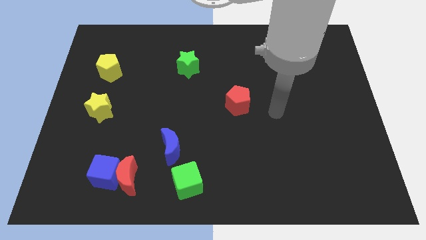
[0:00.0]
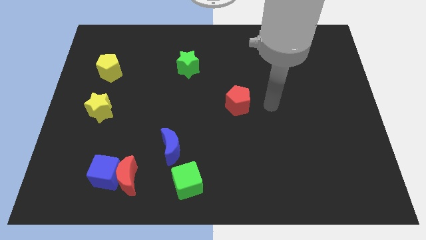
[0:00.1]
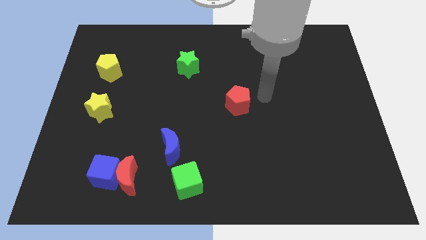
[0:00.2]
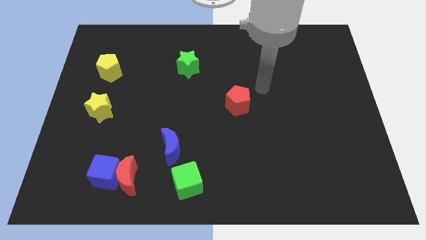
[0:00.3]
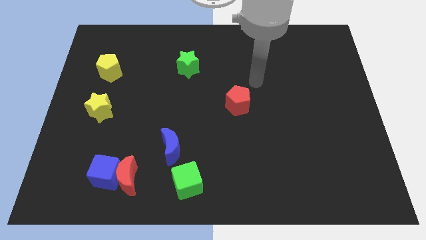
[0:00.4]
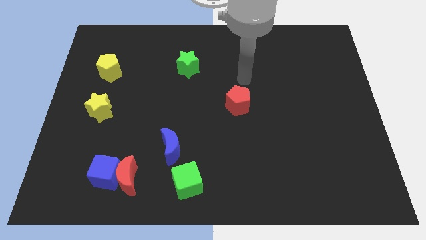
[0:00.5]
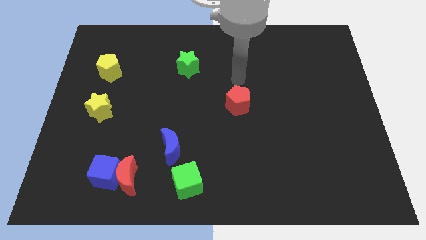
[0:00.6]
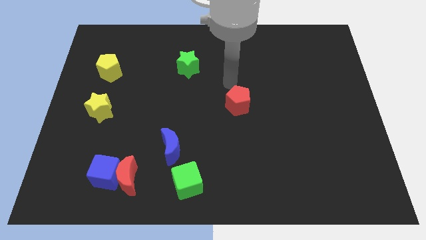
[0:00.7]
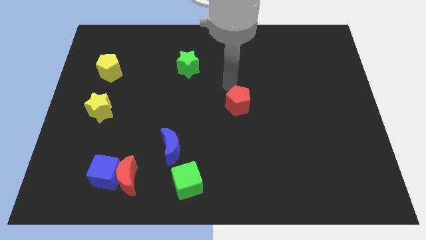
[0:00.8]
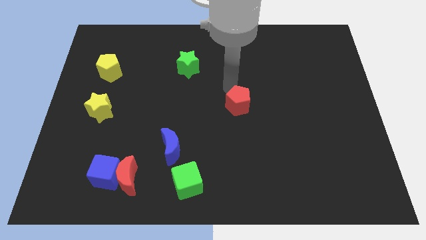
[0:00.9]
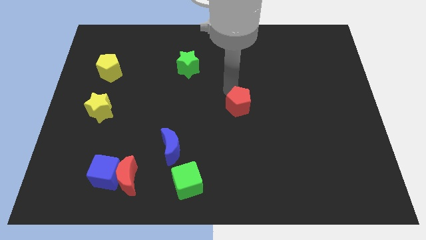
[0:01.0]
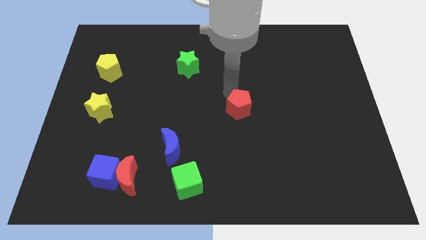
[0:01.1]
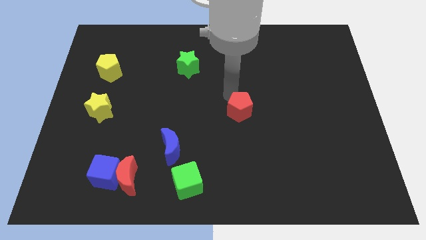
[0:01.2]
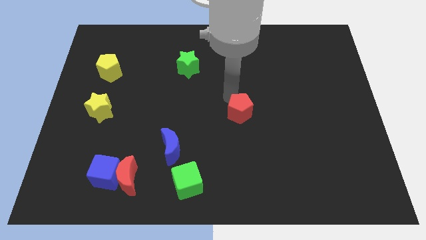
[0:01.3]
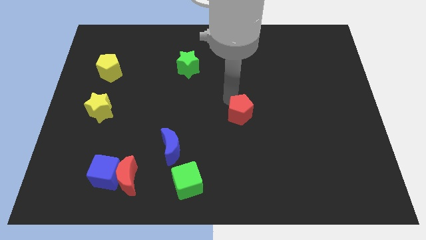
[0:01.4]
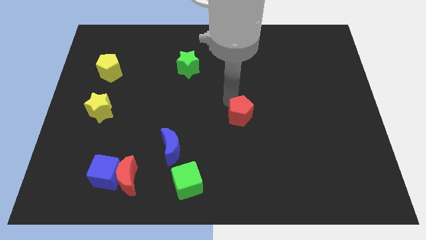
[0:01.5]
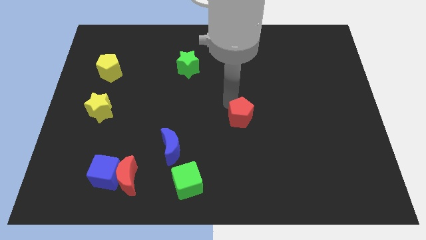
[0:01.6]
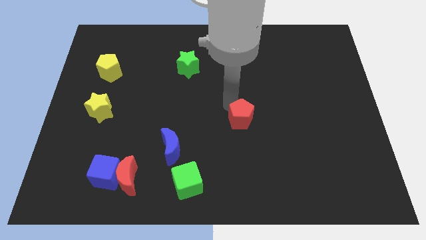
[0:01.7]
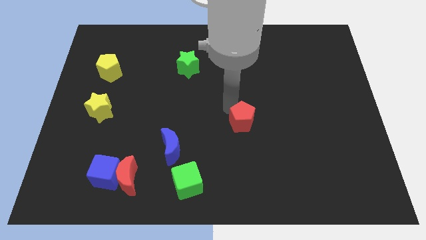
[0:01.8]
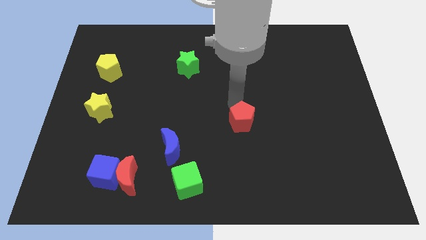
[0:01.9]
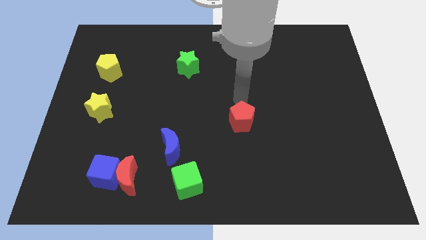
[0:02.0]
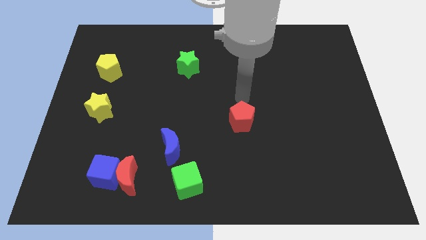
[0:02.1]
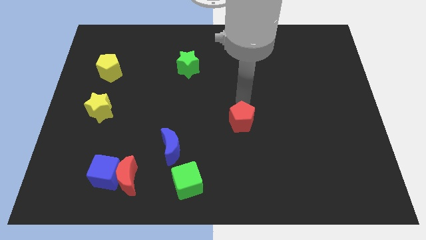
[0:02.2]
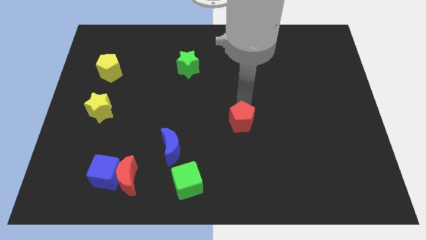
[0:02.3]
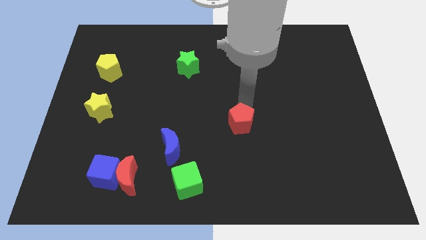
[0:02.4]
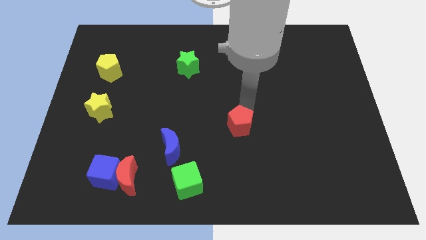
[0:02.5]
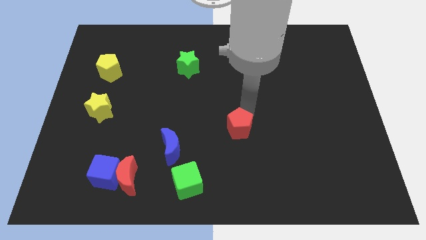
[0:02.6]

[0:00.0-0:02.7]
move the red pentagon somewhat down

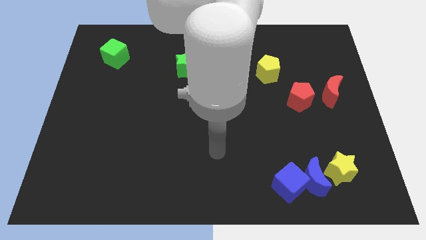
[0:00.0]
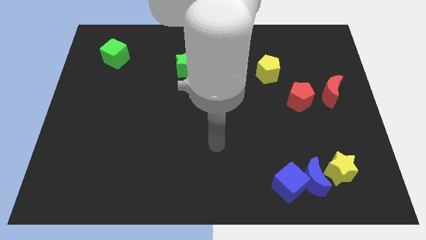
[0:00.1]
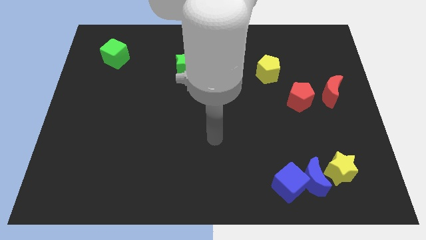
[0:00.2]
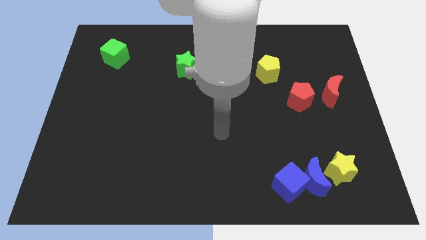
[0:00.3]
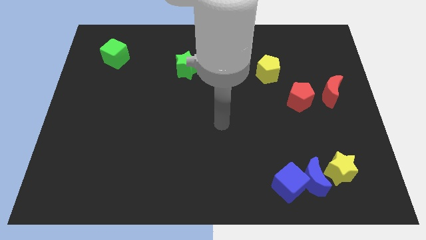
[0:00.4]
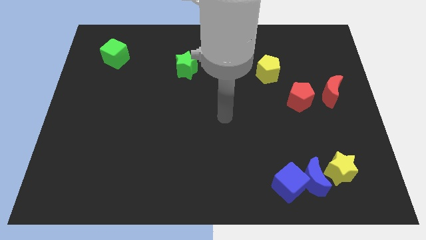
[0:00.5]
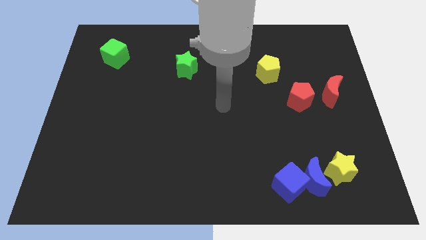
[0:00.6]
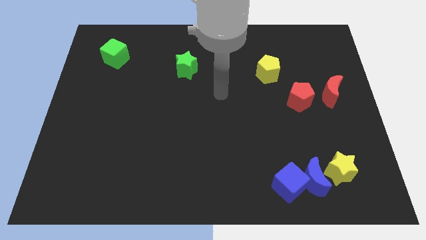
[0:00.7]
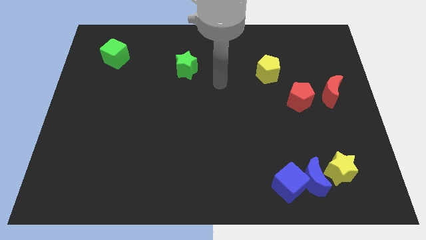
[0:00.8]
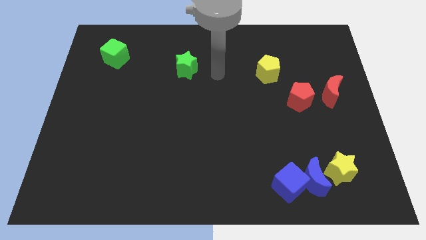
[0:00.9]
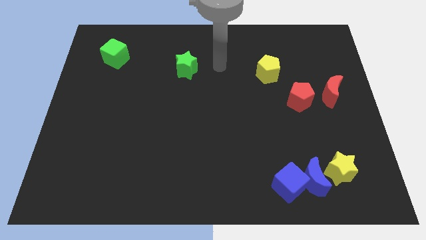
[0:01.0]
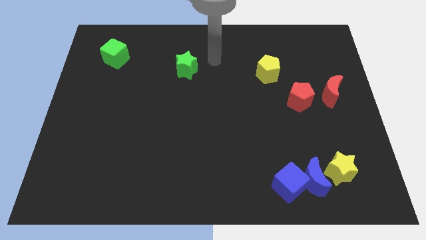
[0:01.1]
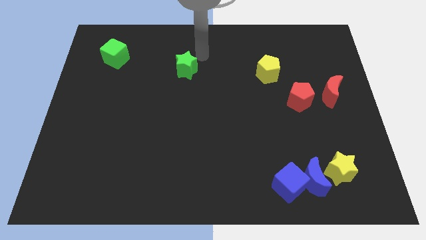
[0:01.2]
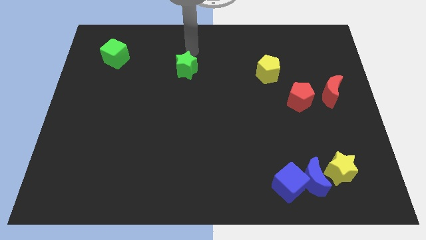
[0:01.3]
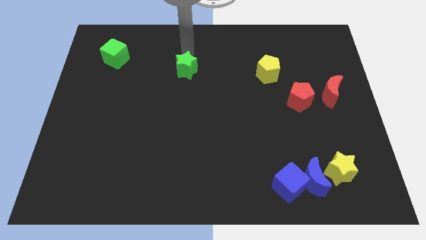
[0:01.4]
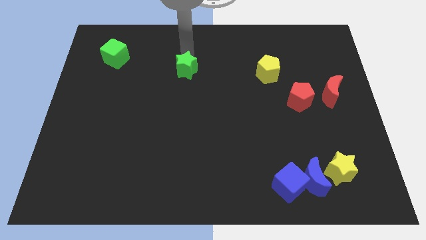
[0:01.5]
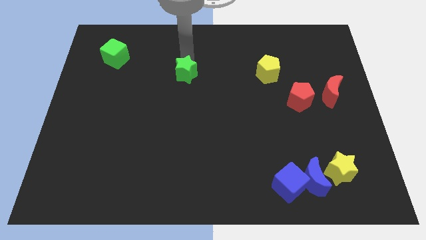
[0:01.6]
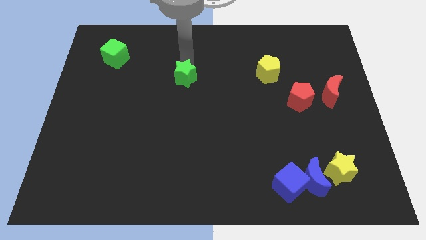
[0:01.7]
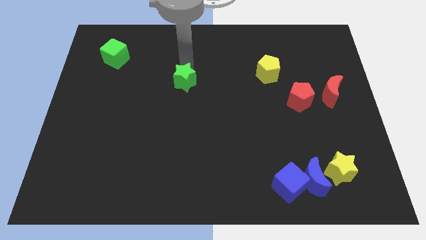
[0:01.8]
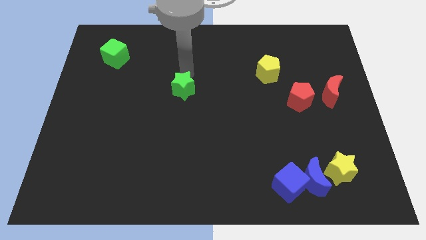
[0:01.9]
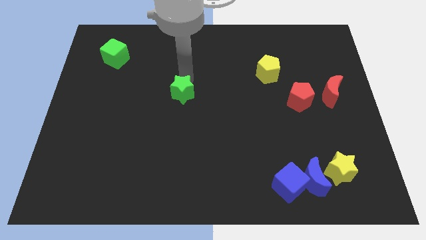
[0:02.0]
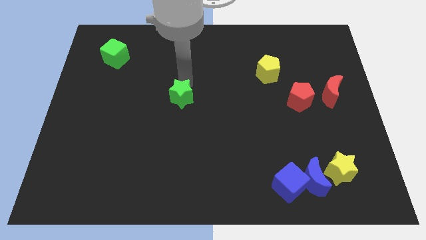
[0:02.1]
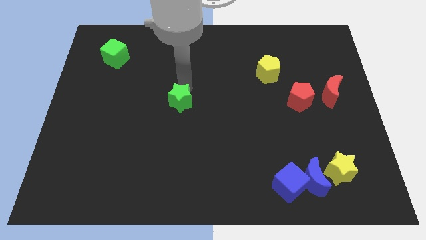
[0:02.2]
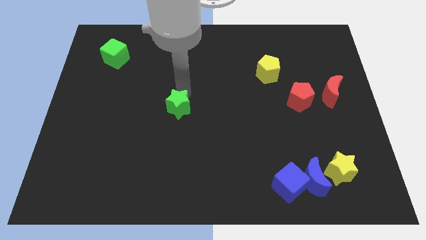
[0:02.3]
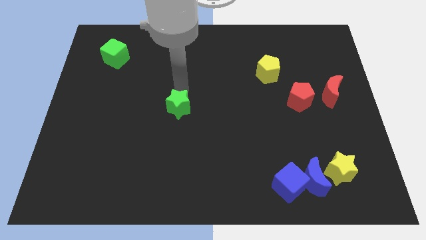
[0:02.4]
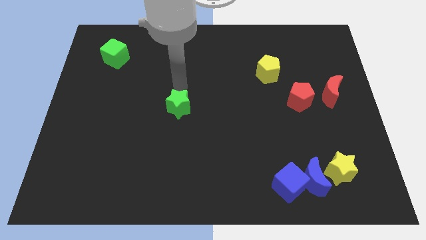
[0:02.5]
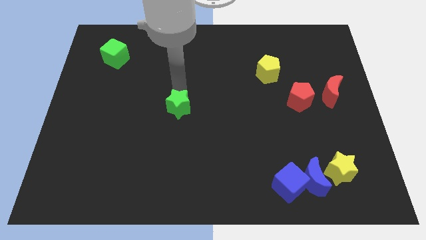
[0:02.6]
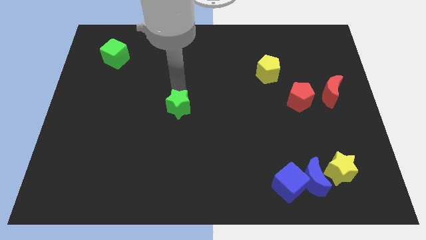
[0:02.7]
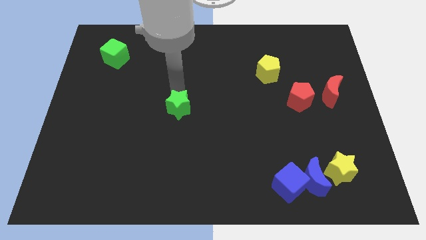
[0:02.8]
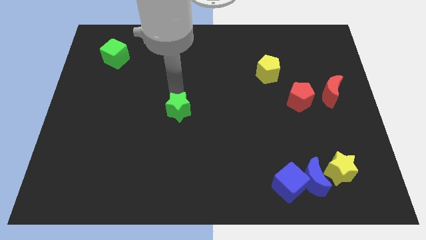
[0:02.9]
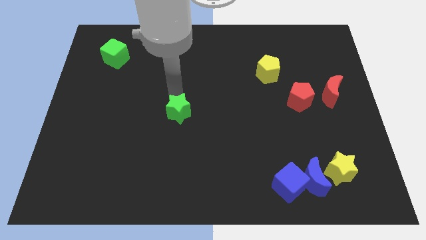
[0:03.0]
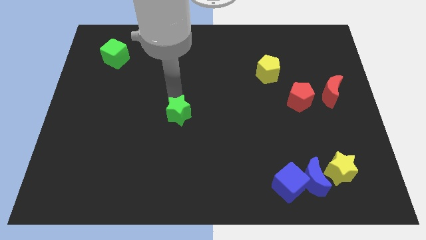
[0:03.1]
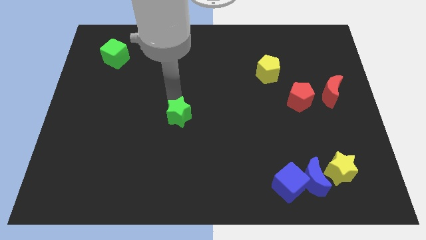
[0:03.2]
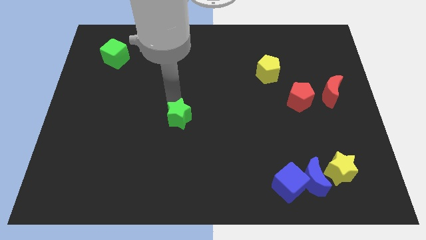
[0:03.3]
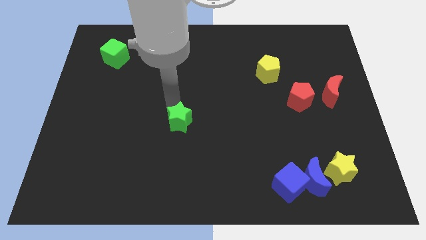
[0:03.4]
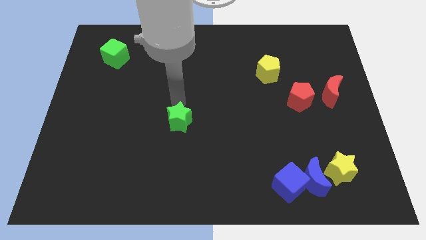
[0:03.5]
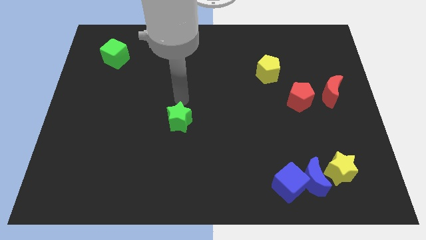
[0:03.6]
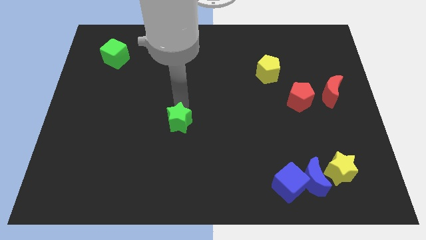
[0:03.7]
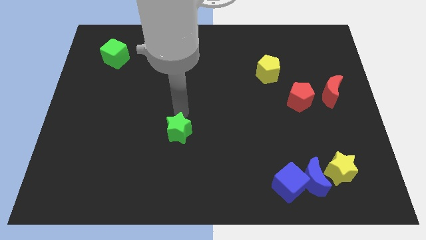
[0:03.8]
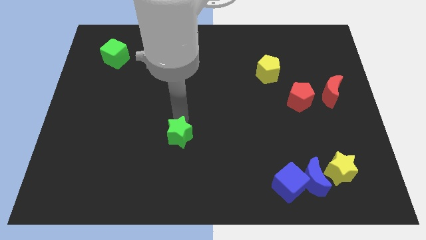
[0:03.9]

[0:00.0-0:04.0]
move the green star downwards

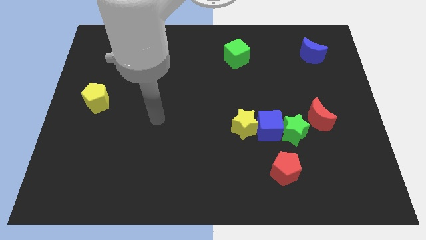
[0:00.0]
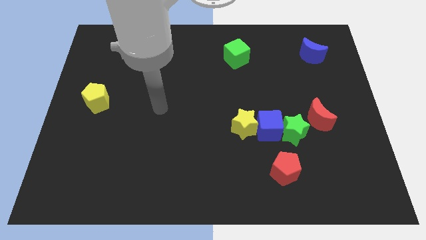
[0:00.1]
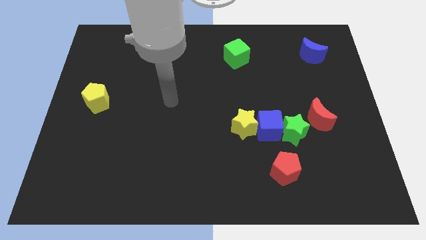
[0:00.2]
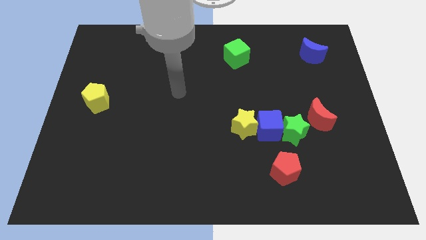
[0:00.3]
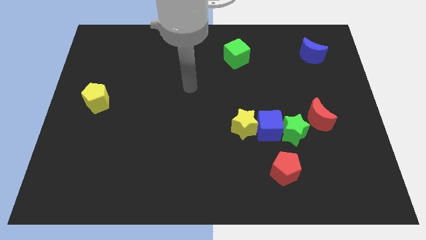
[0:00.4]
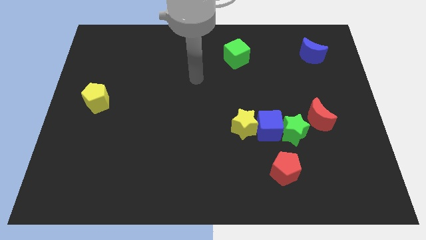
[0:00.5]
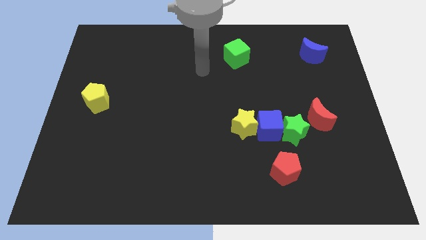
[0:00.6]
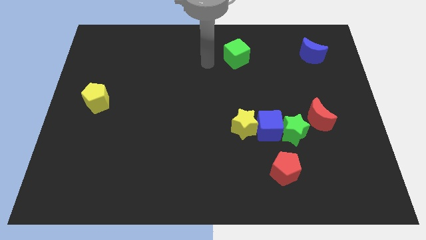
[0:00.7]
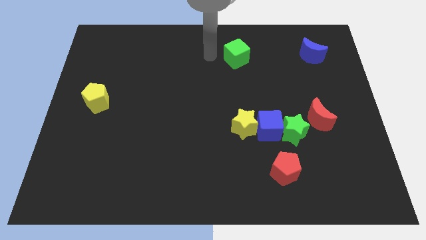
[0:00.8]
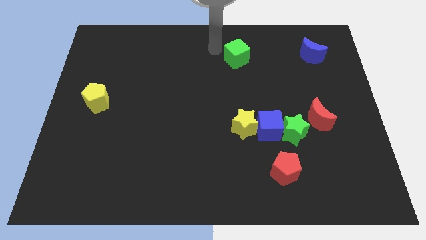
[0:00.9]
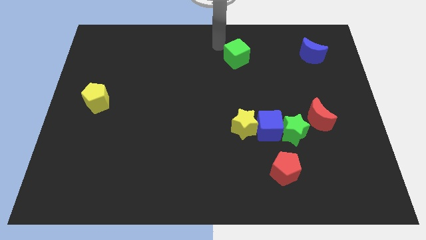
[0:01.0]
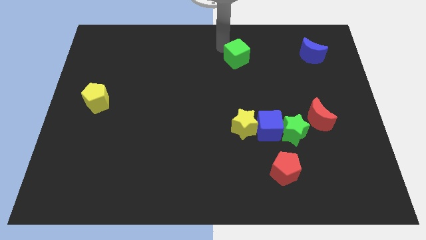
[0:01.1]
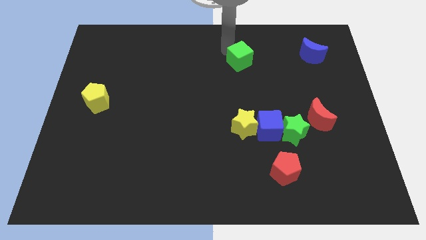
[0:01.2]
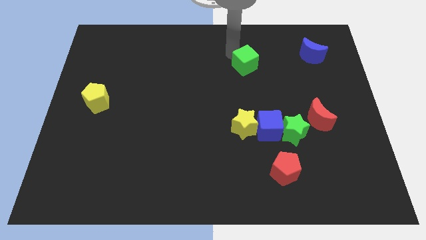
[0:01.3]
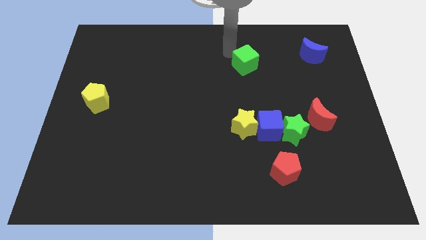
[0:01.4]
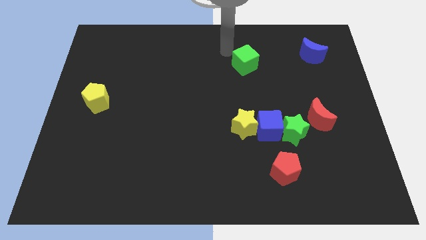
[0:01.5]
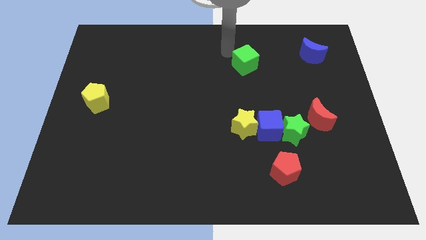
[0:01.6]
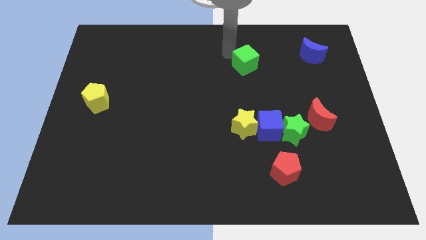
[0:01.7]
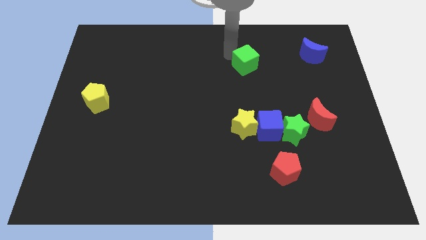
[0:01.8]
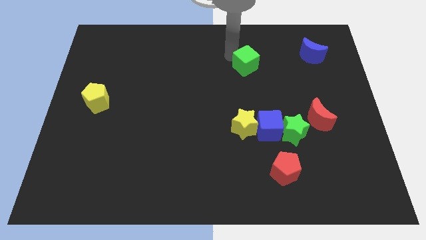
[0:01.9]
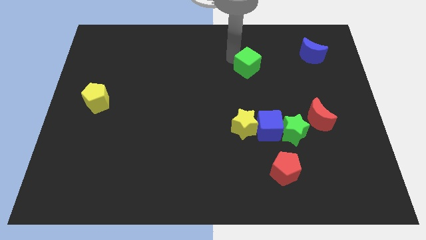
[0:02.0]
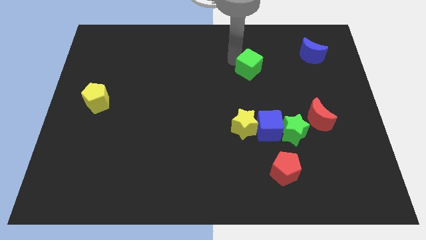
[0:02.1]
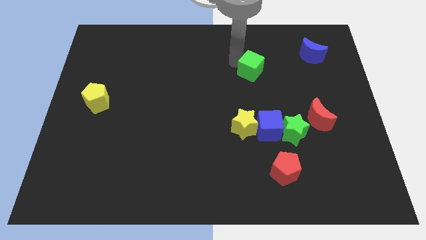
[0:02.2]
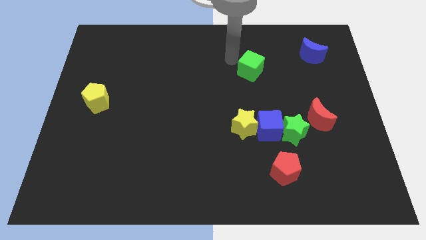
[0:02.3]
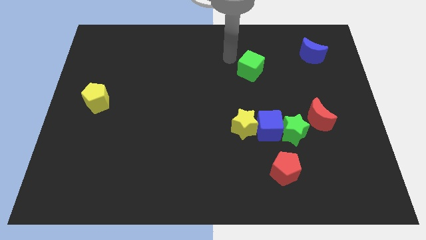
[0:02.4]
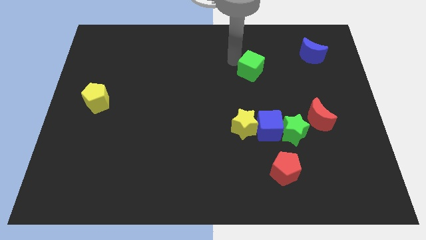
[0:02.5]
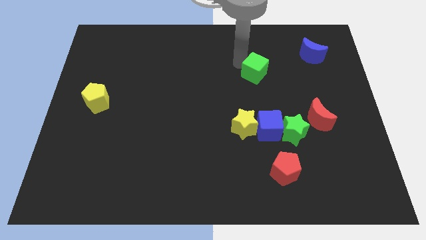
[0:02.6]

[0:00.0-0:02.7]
slightly move the green cube downwards and to the right diagonally
